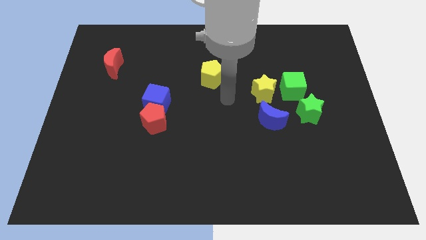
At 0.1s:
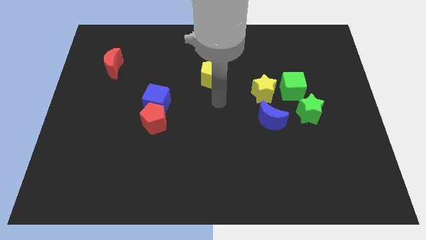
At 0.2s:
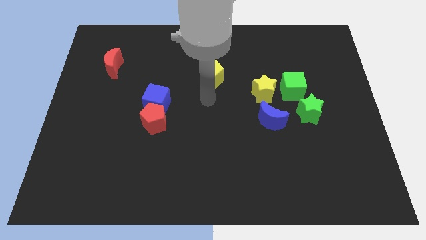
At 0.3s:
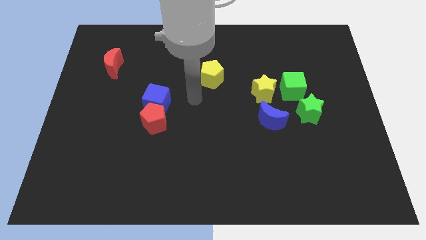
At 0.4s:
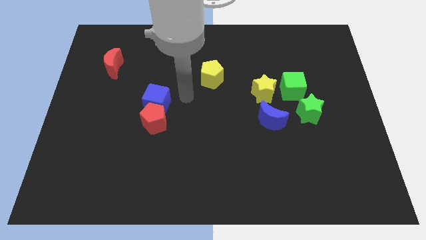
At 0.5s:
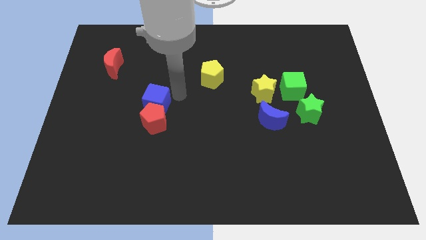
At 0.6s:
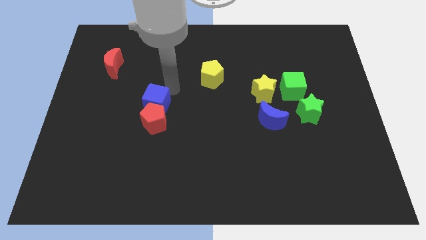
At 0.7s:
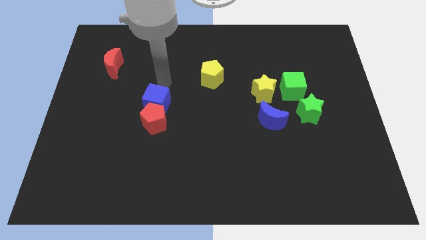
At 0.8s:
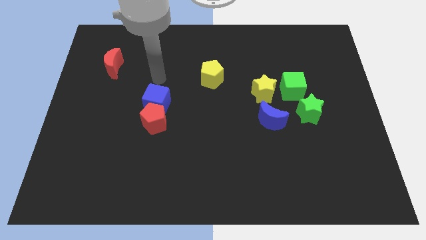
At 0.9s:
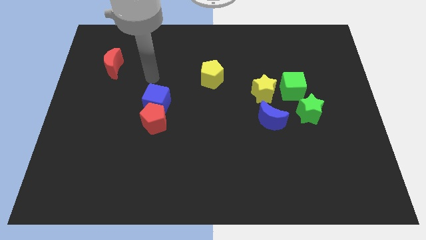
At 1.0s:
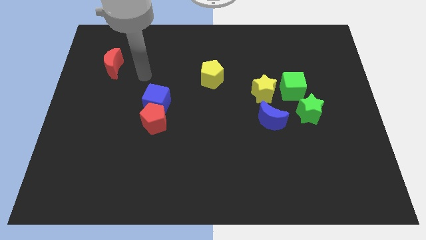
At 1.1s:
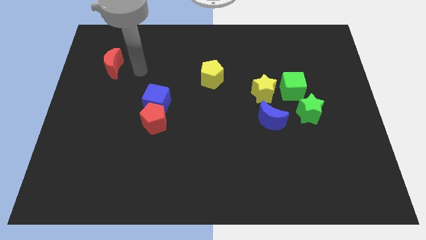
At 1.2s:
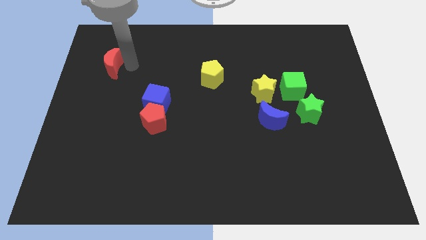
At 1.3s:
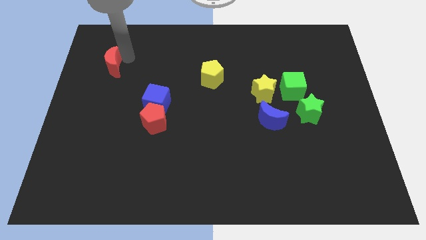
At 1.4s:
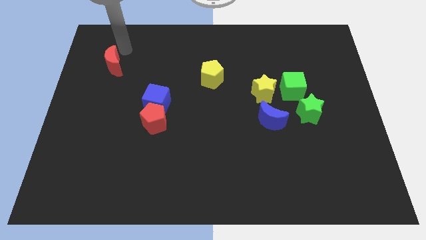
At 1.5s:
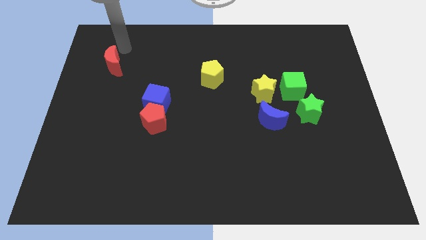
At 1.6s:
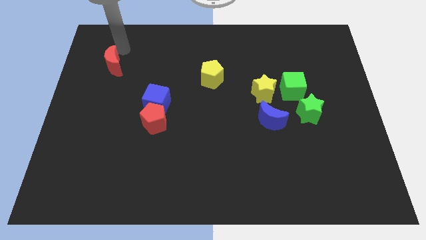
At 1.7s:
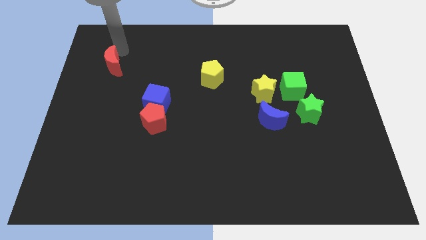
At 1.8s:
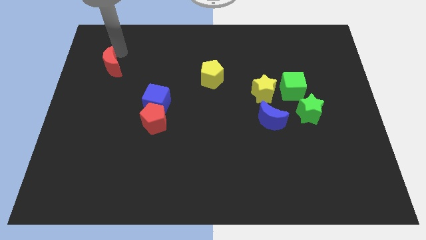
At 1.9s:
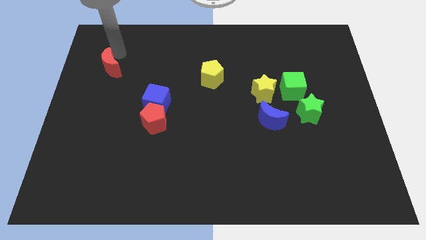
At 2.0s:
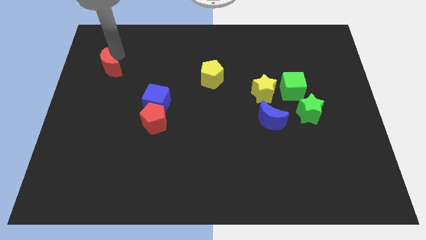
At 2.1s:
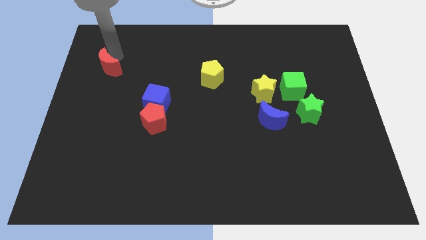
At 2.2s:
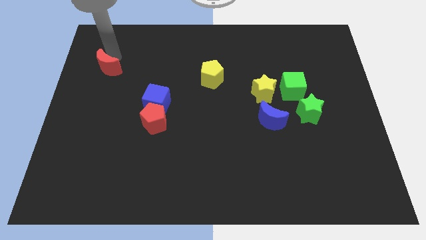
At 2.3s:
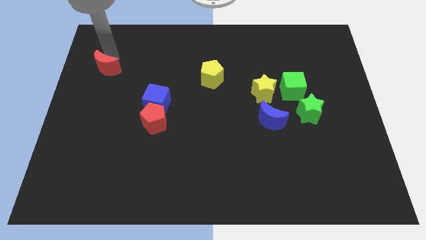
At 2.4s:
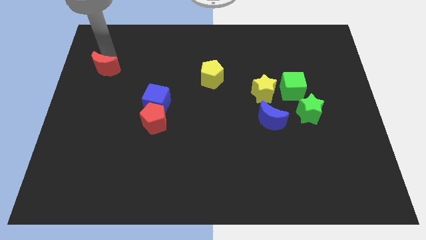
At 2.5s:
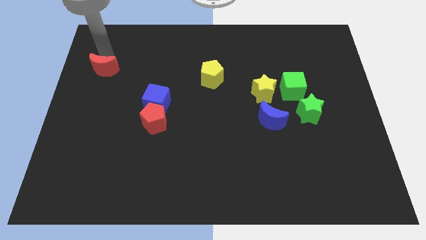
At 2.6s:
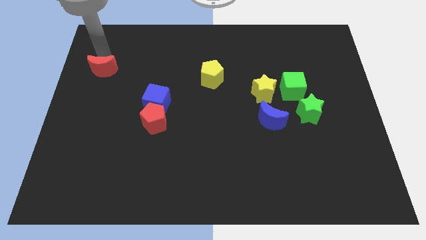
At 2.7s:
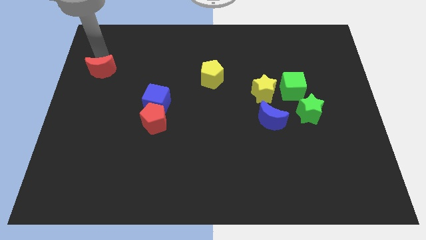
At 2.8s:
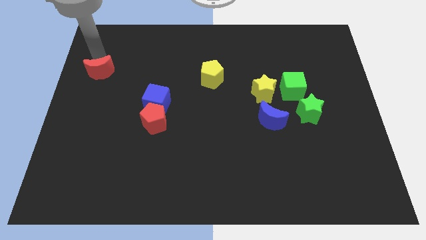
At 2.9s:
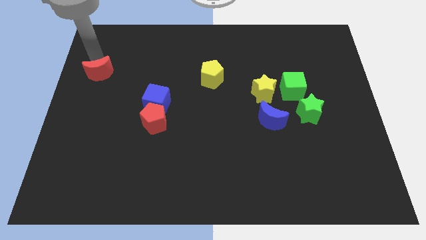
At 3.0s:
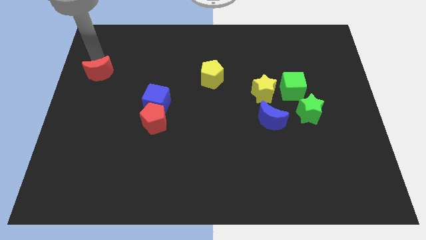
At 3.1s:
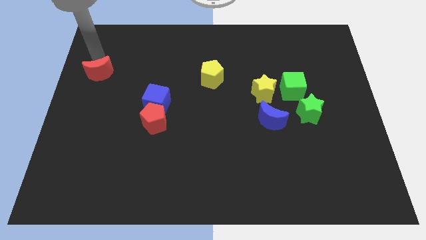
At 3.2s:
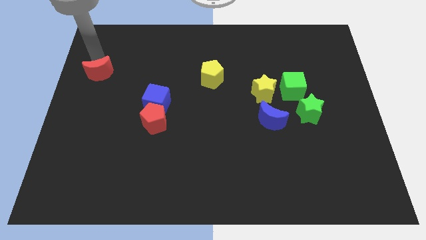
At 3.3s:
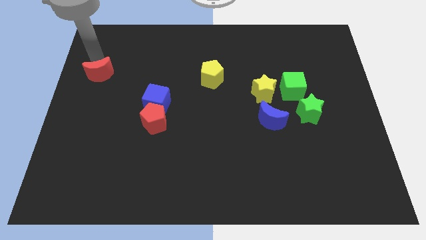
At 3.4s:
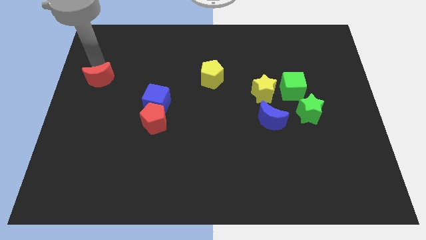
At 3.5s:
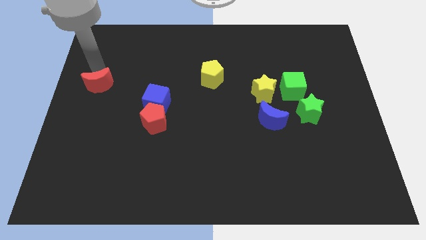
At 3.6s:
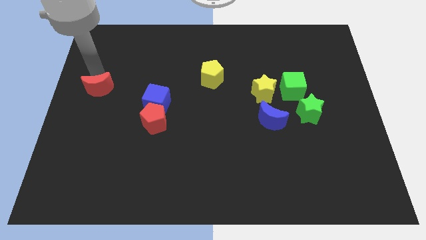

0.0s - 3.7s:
move the red moon slightly down

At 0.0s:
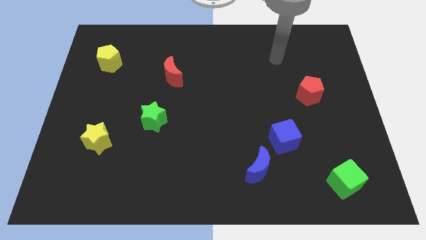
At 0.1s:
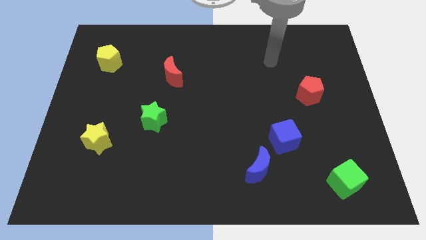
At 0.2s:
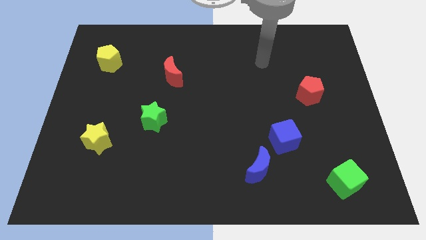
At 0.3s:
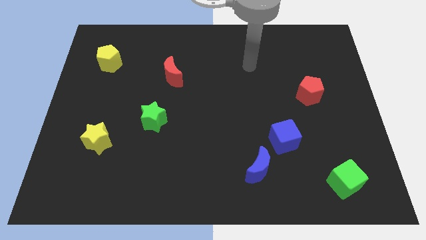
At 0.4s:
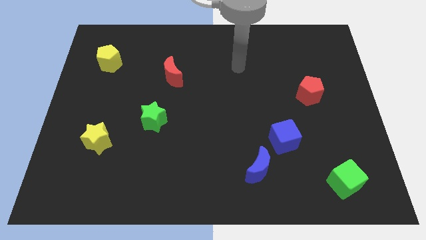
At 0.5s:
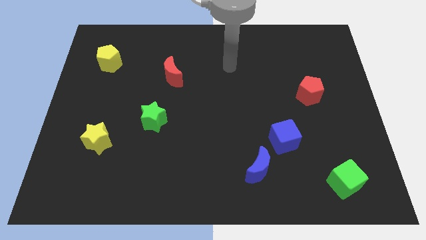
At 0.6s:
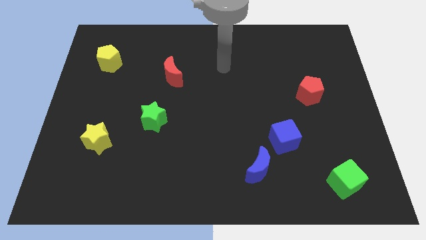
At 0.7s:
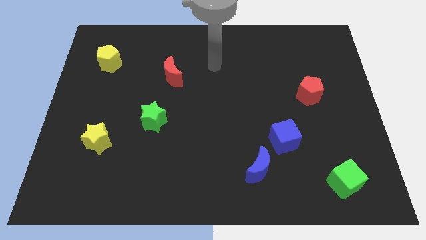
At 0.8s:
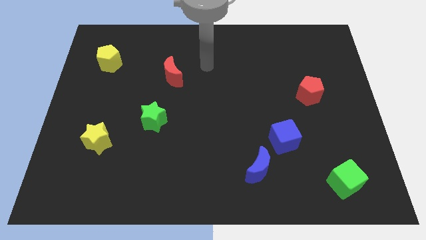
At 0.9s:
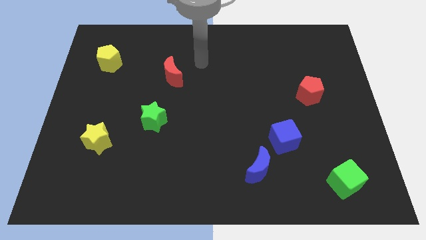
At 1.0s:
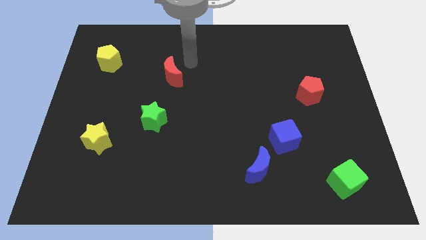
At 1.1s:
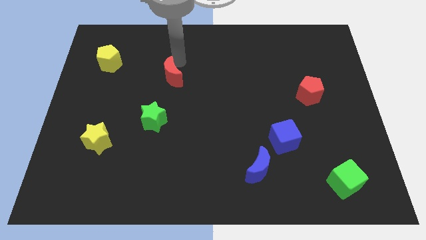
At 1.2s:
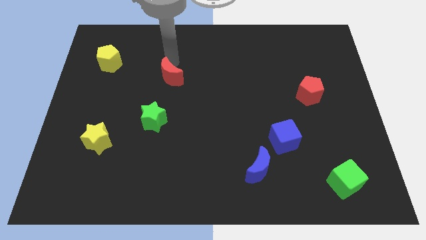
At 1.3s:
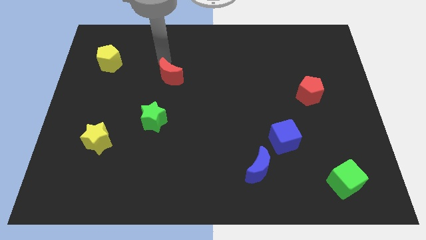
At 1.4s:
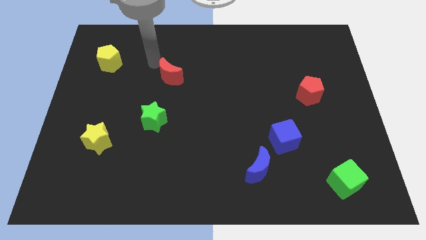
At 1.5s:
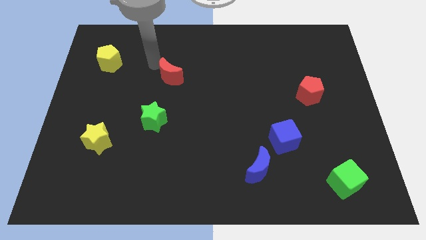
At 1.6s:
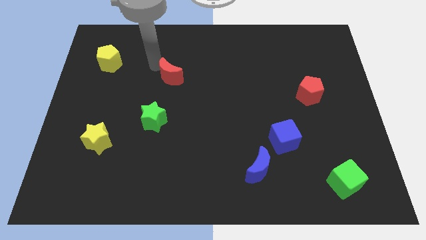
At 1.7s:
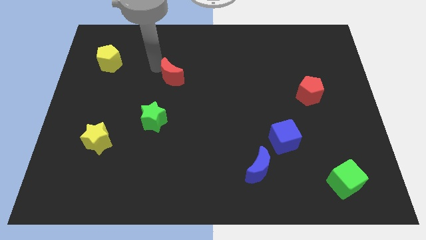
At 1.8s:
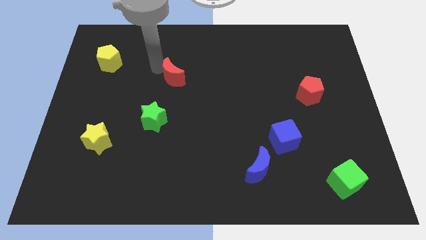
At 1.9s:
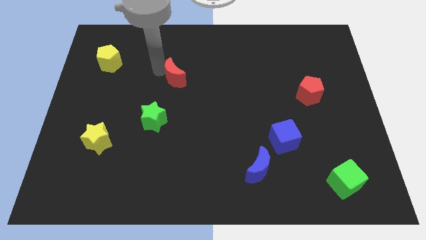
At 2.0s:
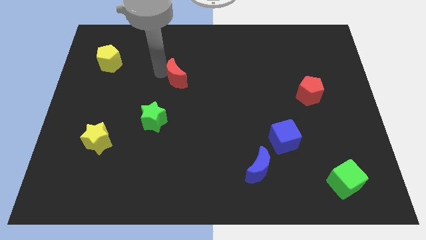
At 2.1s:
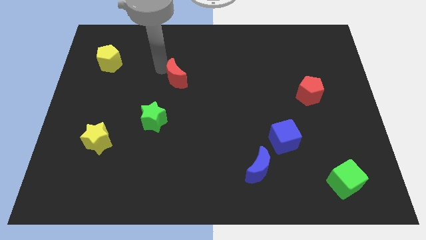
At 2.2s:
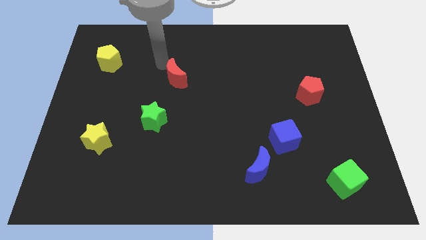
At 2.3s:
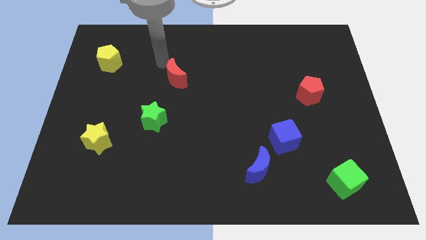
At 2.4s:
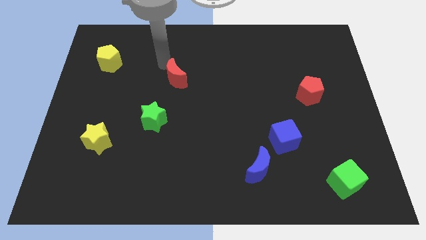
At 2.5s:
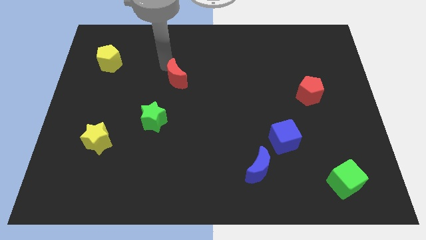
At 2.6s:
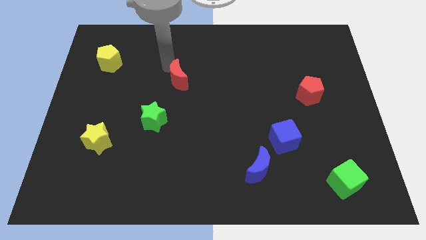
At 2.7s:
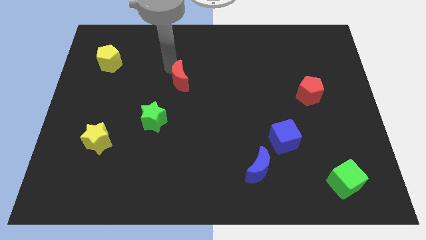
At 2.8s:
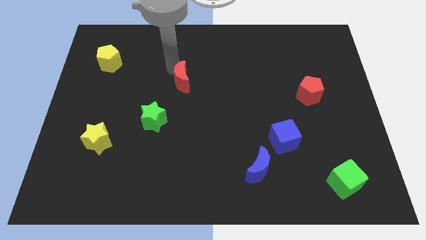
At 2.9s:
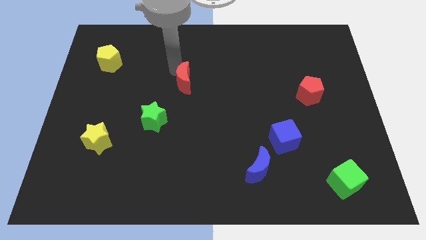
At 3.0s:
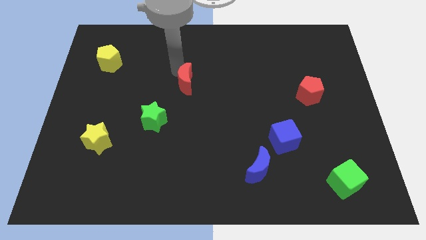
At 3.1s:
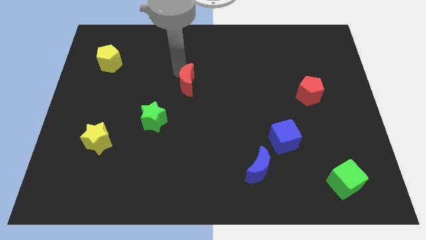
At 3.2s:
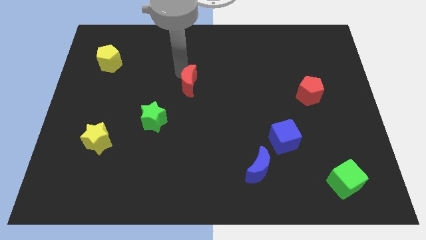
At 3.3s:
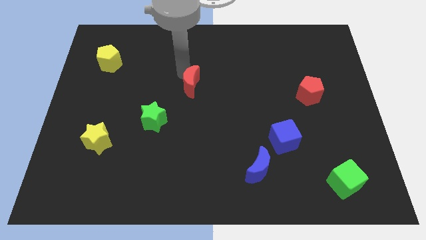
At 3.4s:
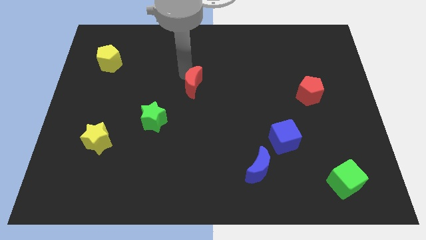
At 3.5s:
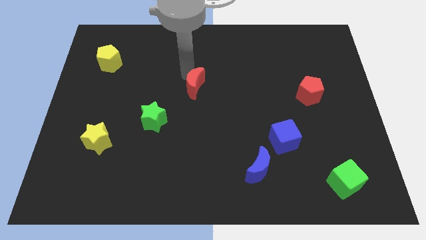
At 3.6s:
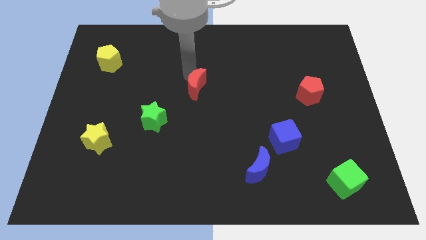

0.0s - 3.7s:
slightly move the red moon downwards and then to the right

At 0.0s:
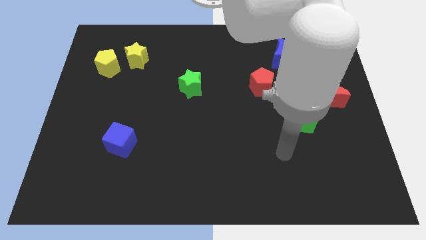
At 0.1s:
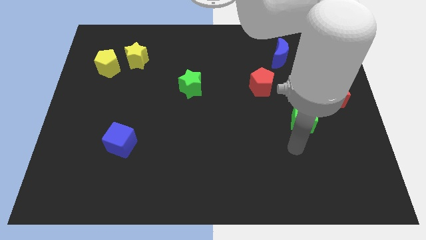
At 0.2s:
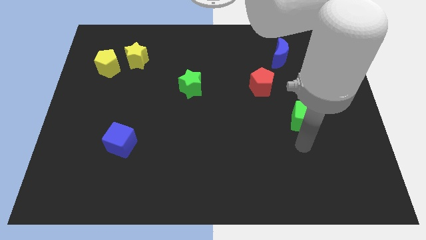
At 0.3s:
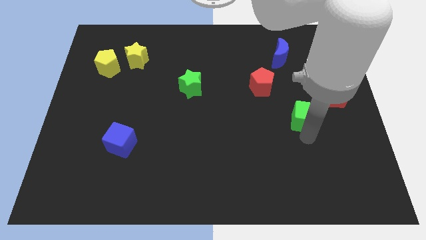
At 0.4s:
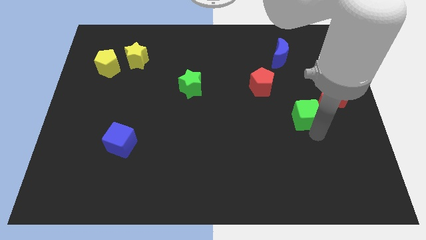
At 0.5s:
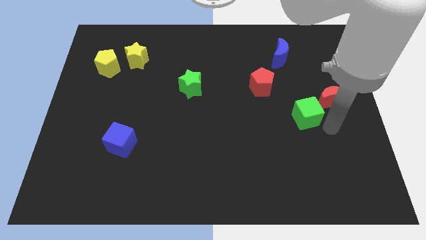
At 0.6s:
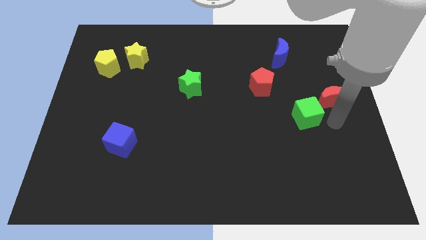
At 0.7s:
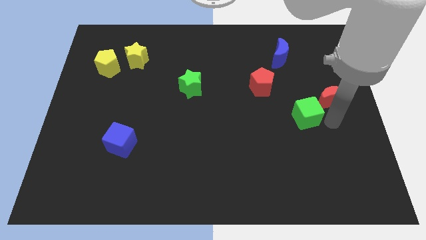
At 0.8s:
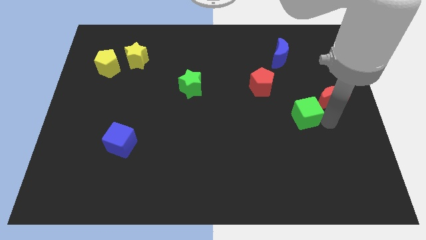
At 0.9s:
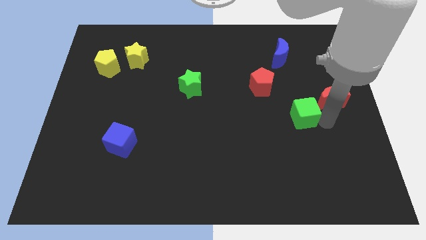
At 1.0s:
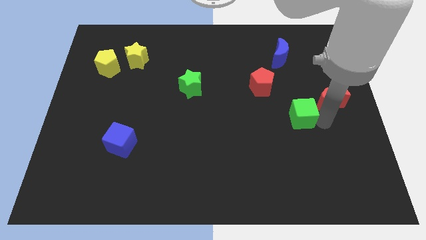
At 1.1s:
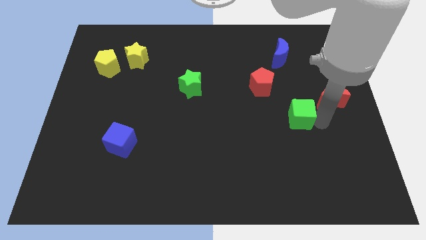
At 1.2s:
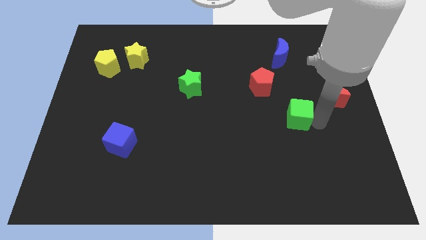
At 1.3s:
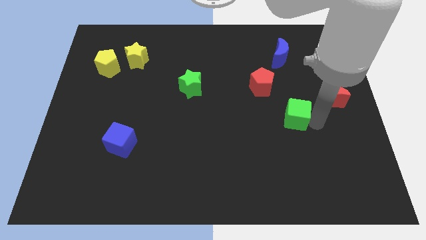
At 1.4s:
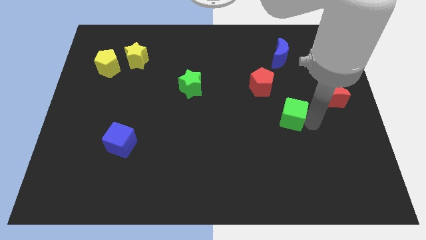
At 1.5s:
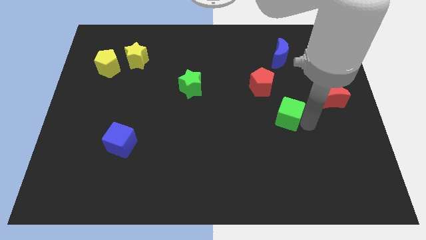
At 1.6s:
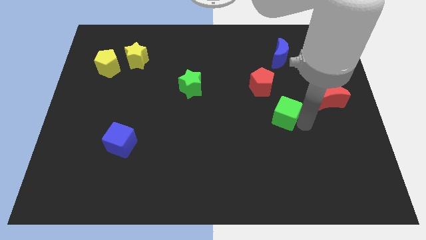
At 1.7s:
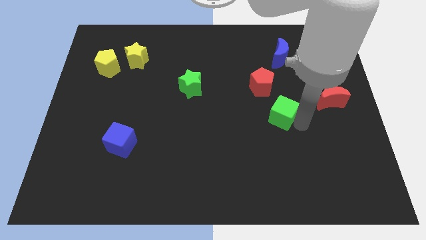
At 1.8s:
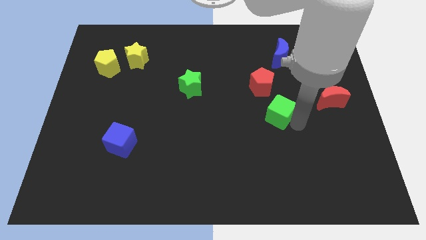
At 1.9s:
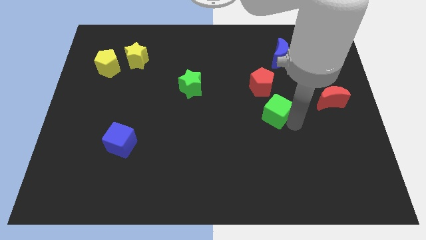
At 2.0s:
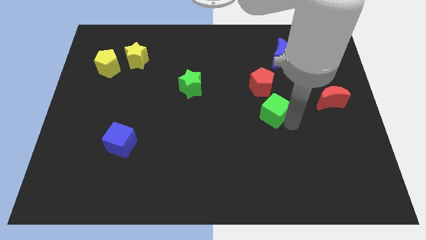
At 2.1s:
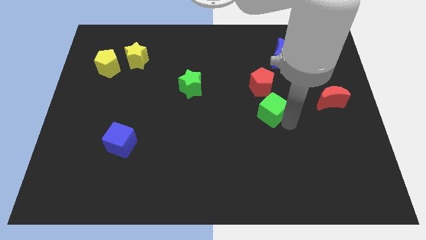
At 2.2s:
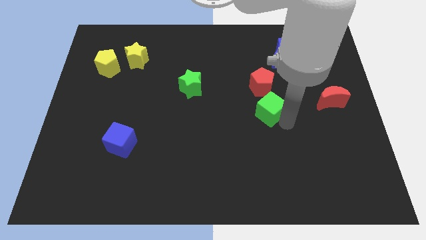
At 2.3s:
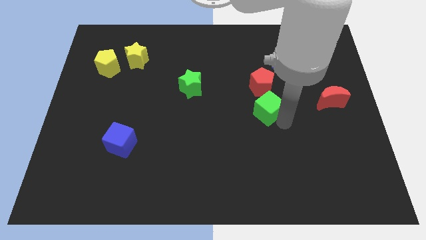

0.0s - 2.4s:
push the green cube slightly diagonally up and left
